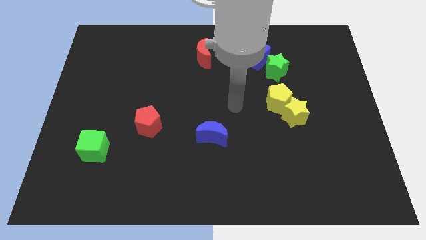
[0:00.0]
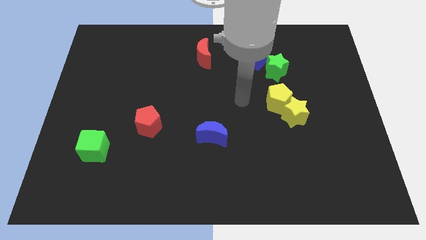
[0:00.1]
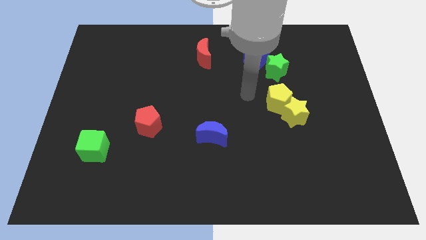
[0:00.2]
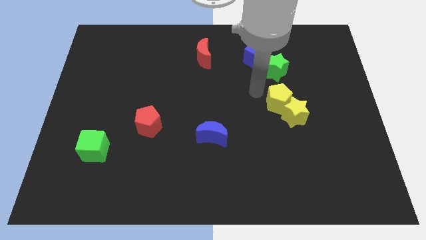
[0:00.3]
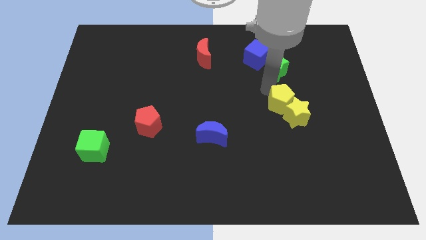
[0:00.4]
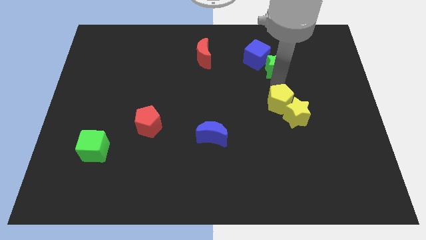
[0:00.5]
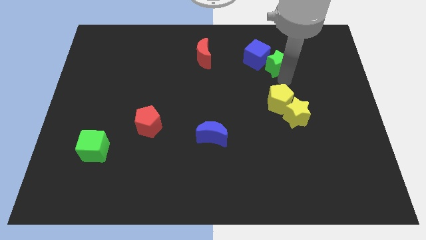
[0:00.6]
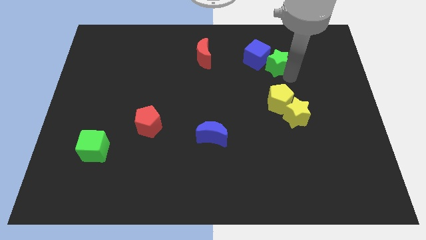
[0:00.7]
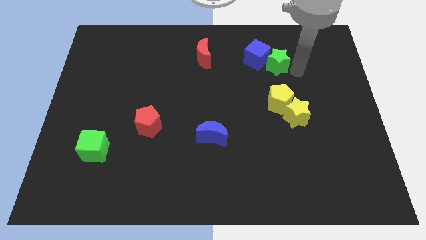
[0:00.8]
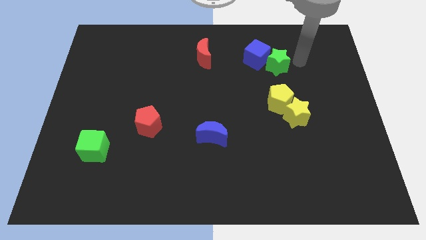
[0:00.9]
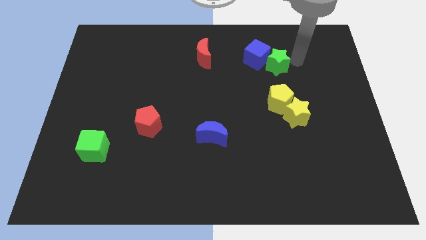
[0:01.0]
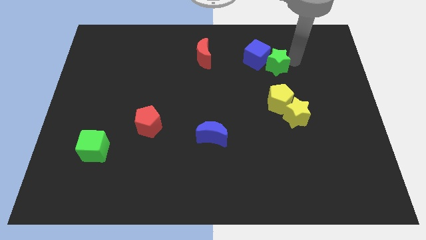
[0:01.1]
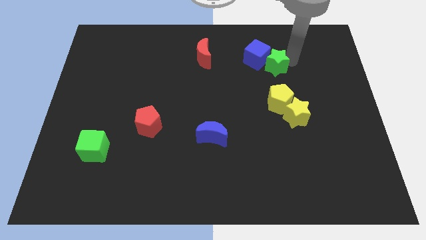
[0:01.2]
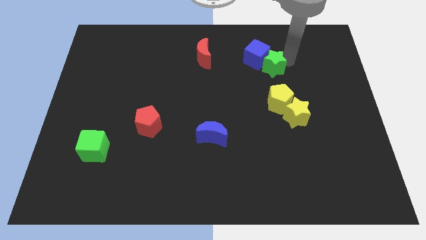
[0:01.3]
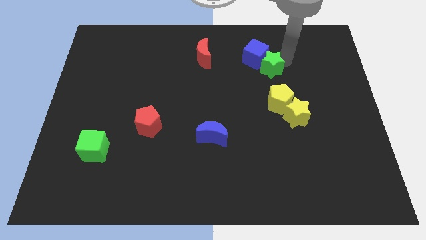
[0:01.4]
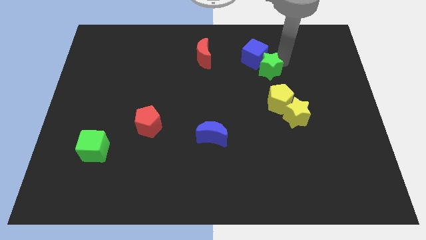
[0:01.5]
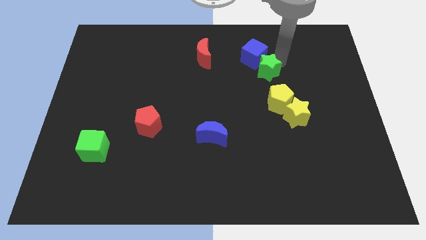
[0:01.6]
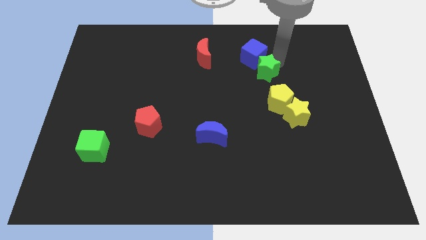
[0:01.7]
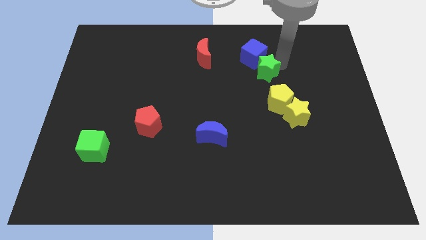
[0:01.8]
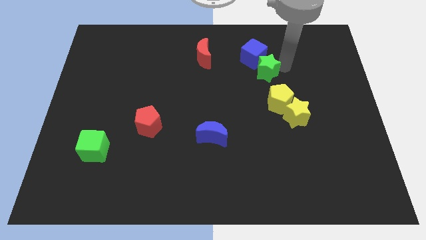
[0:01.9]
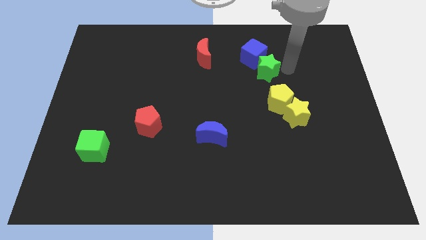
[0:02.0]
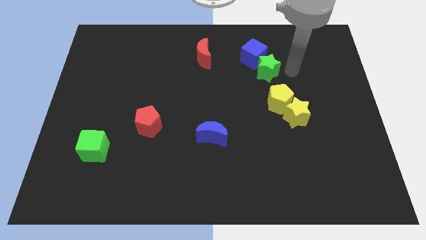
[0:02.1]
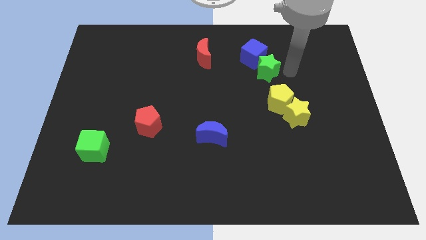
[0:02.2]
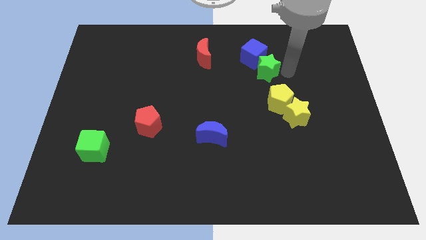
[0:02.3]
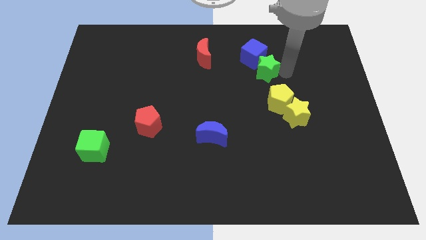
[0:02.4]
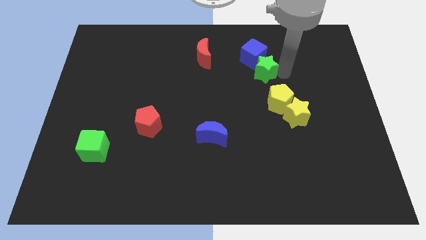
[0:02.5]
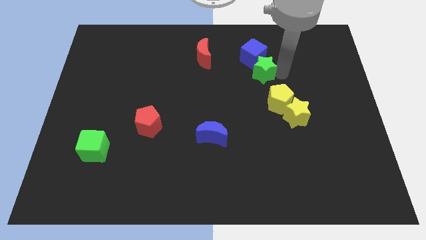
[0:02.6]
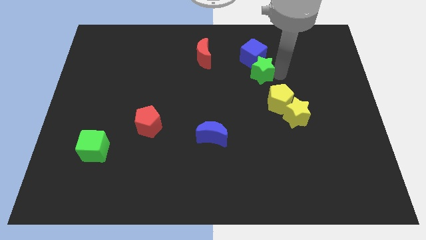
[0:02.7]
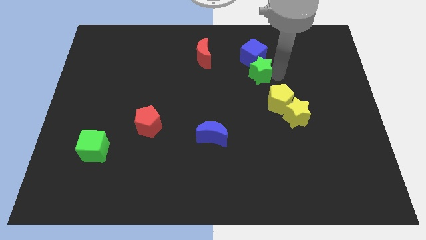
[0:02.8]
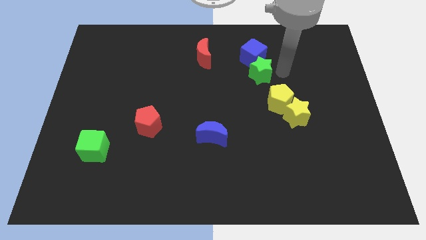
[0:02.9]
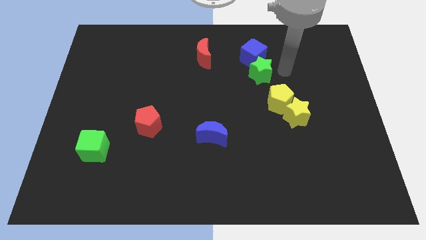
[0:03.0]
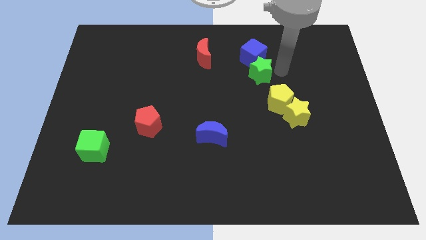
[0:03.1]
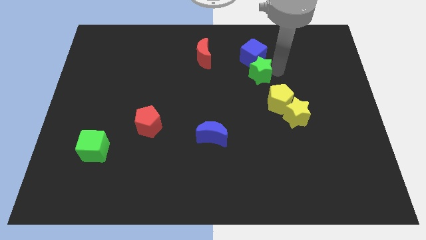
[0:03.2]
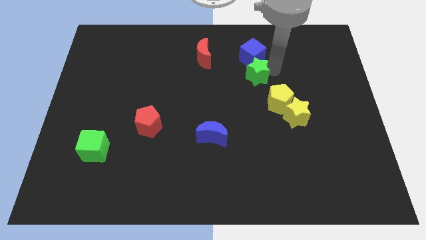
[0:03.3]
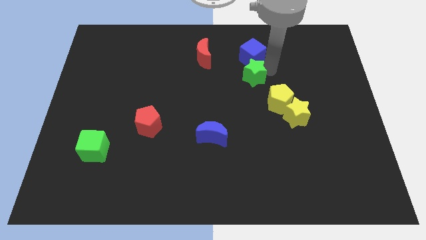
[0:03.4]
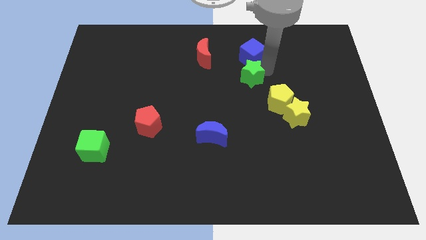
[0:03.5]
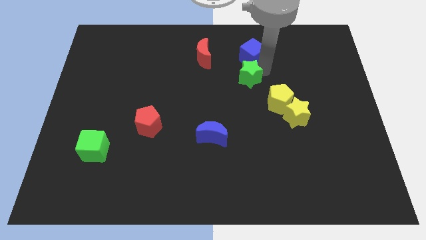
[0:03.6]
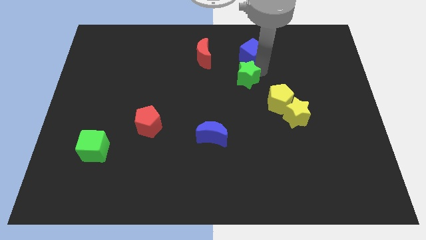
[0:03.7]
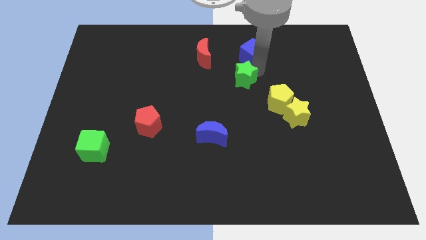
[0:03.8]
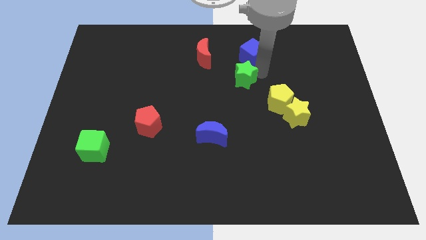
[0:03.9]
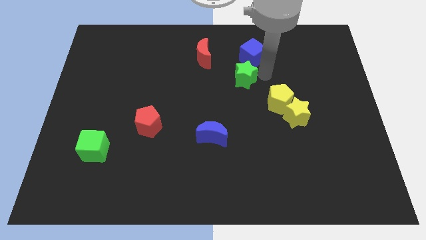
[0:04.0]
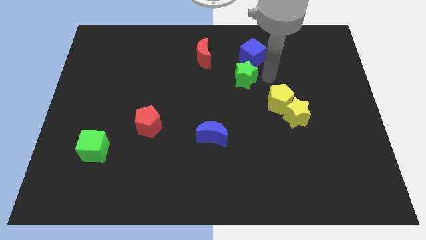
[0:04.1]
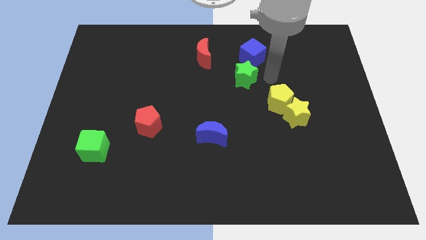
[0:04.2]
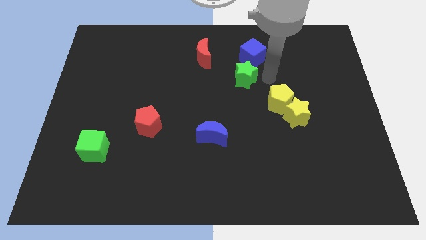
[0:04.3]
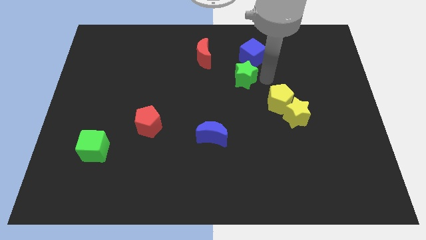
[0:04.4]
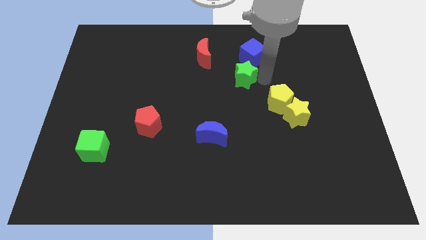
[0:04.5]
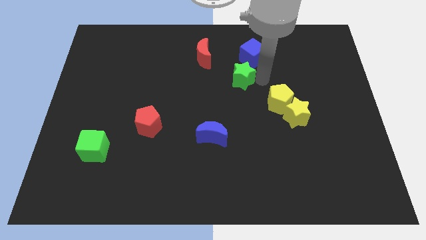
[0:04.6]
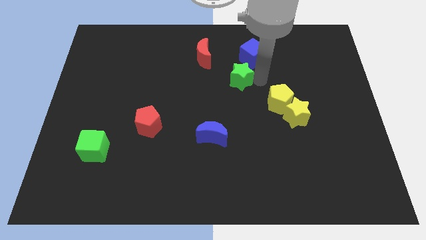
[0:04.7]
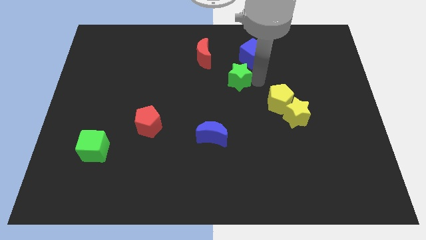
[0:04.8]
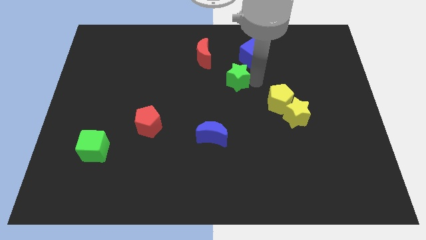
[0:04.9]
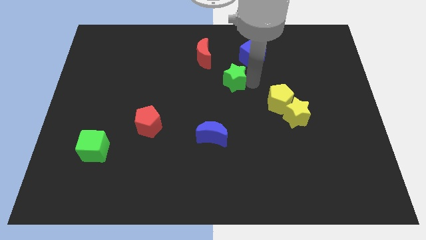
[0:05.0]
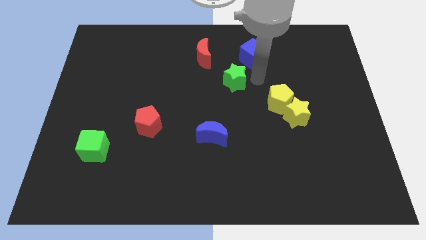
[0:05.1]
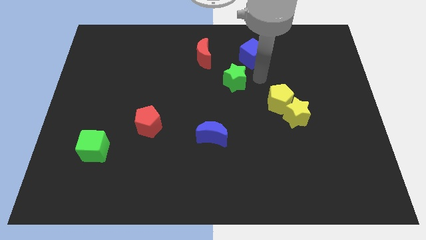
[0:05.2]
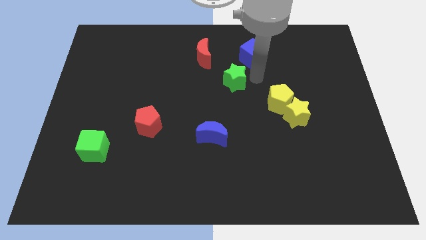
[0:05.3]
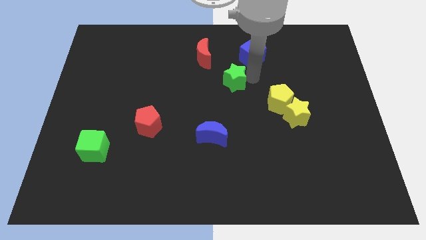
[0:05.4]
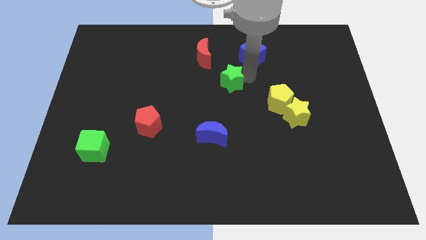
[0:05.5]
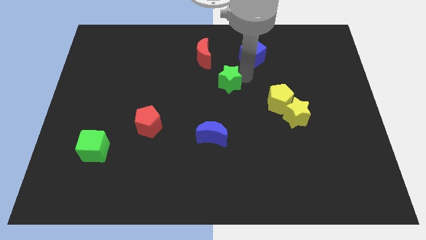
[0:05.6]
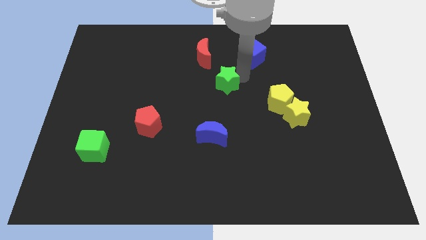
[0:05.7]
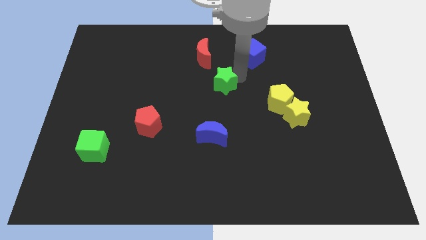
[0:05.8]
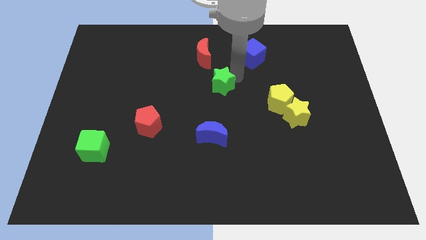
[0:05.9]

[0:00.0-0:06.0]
slide the green star to the bottom of the red moon

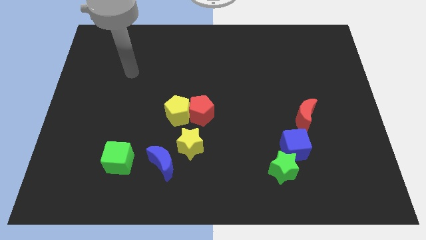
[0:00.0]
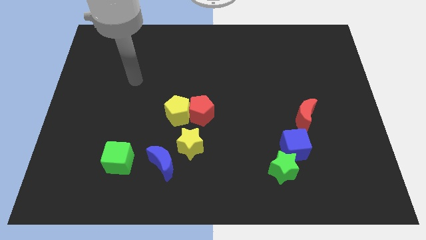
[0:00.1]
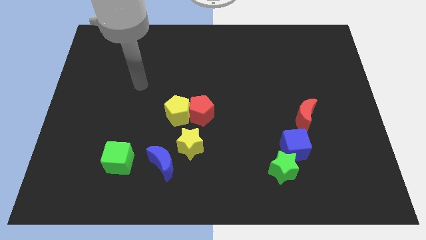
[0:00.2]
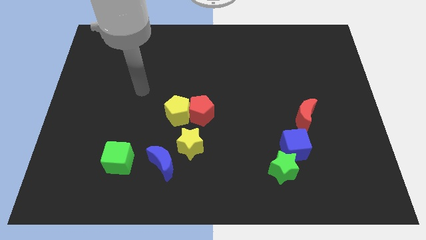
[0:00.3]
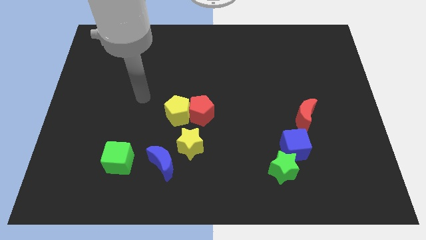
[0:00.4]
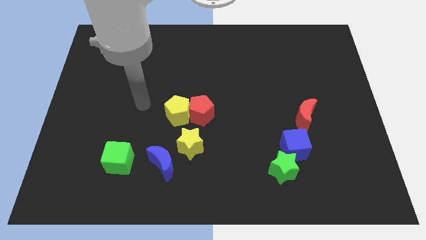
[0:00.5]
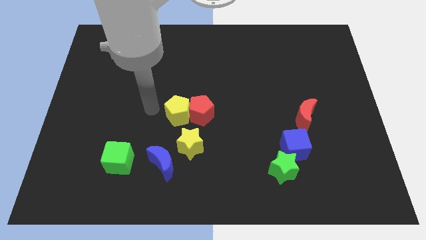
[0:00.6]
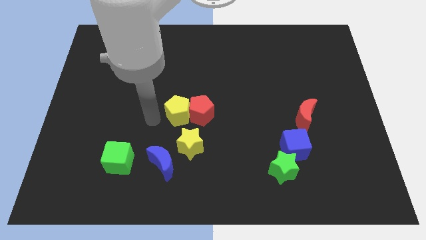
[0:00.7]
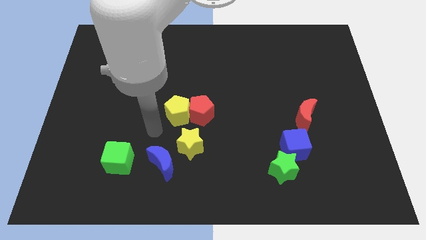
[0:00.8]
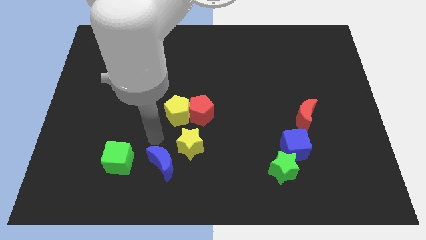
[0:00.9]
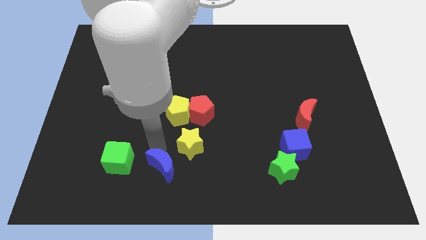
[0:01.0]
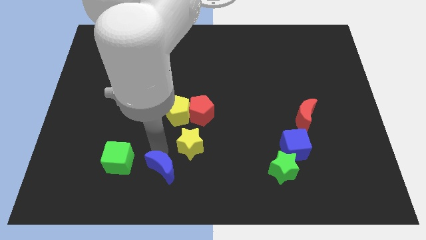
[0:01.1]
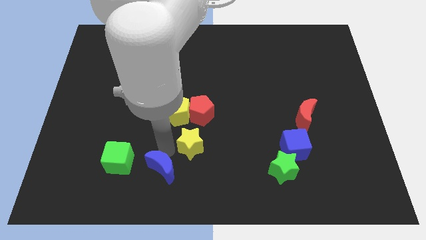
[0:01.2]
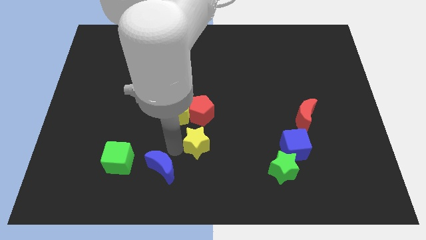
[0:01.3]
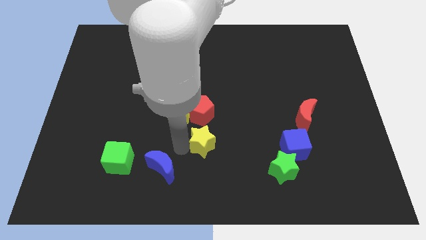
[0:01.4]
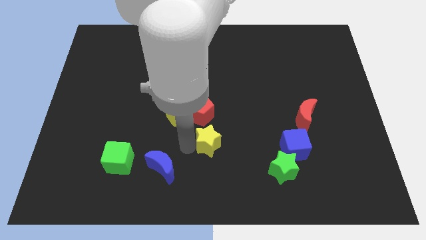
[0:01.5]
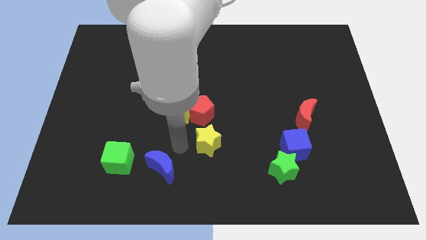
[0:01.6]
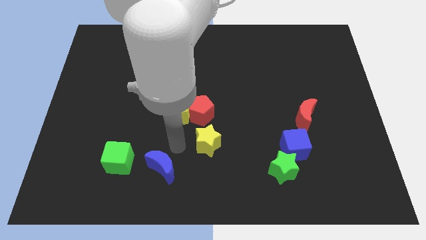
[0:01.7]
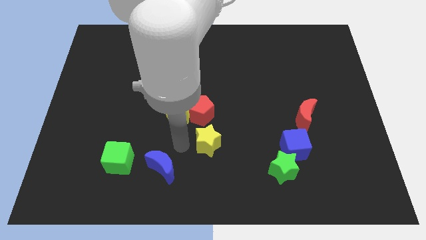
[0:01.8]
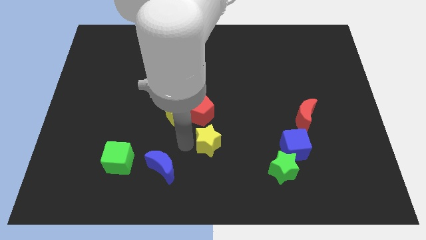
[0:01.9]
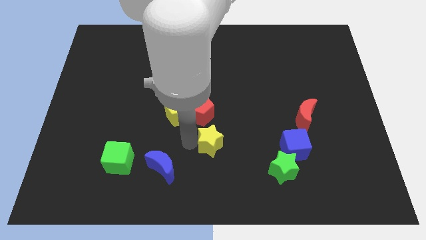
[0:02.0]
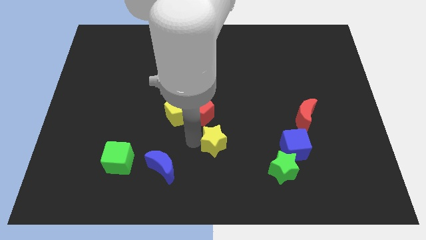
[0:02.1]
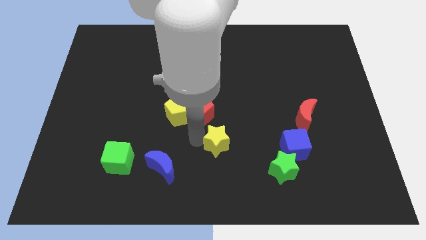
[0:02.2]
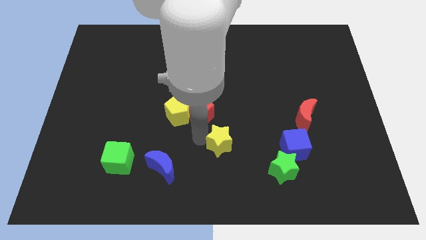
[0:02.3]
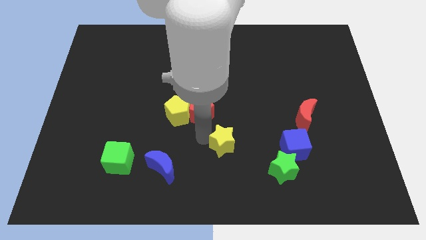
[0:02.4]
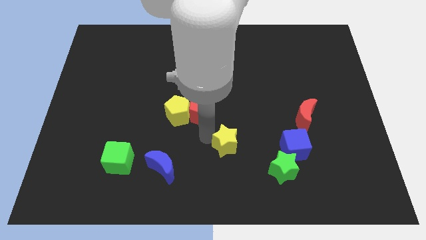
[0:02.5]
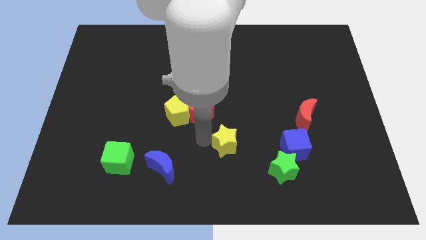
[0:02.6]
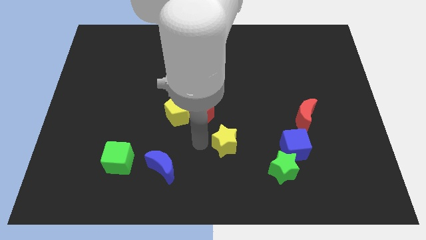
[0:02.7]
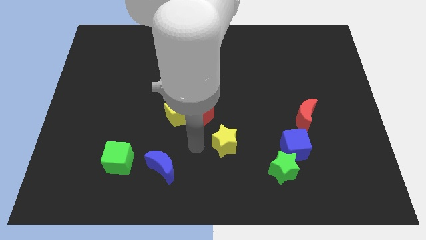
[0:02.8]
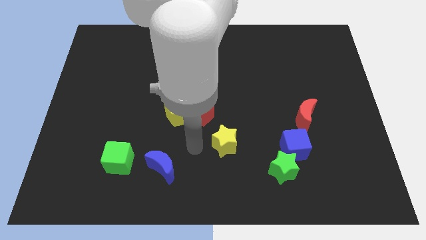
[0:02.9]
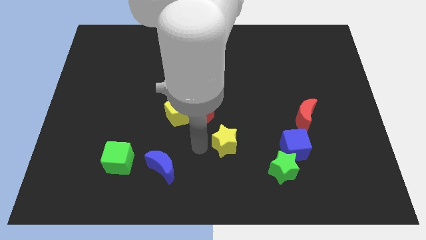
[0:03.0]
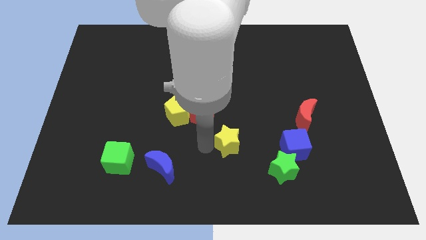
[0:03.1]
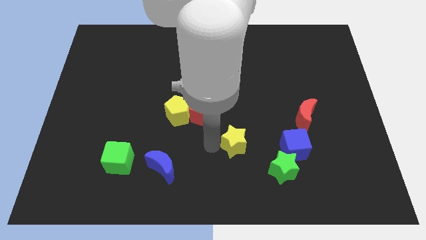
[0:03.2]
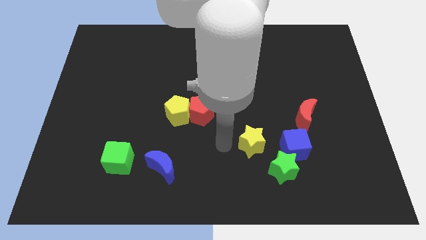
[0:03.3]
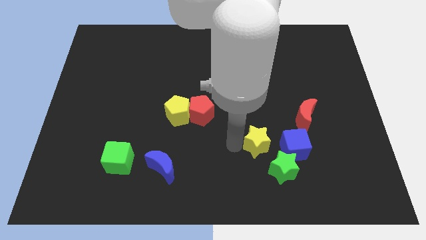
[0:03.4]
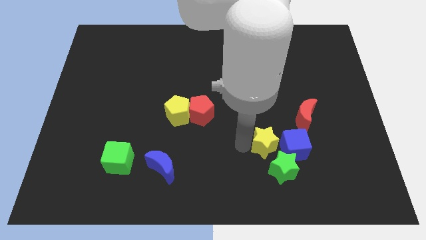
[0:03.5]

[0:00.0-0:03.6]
put the yellow star to the bottom left side of the red moon
